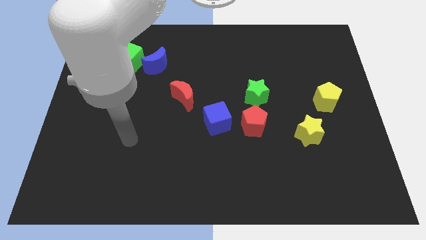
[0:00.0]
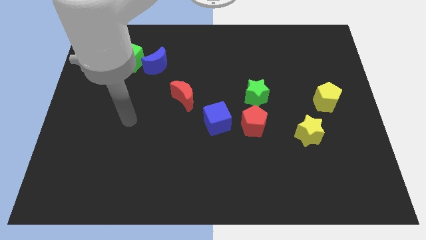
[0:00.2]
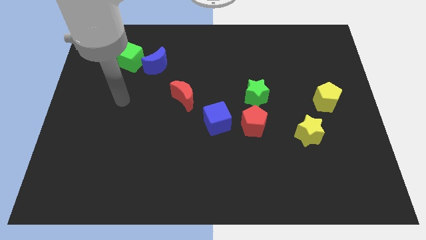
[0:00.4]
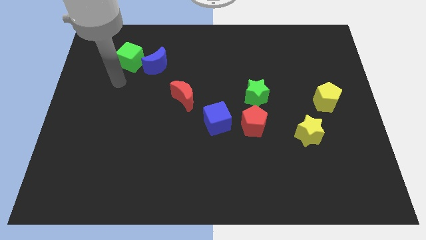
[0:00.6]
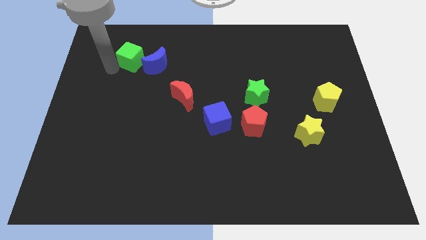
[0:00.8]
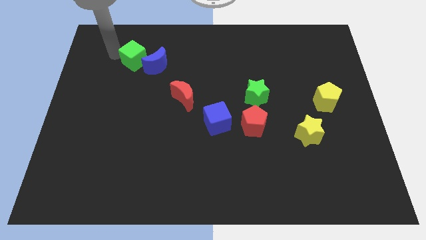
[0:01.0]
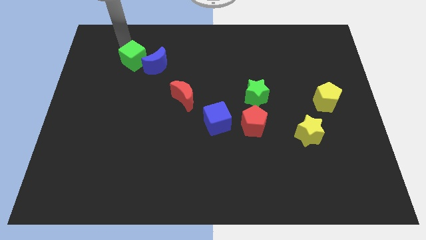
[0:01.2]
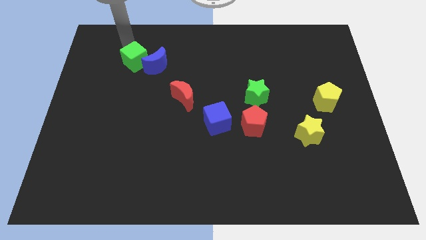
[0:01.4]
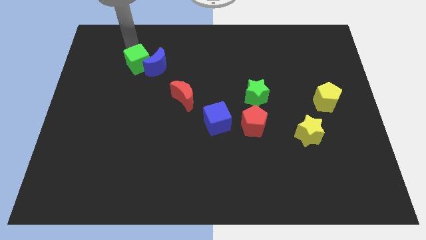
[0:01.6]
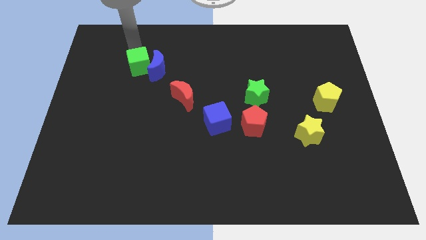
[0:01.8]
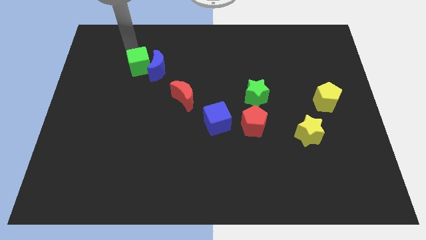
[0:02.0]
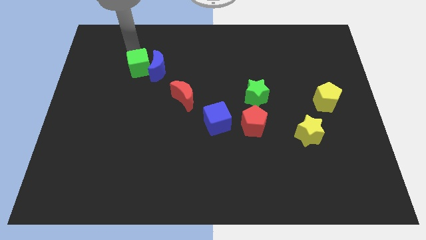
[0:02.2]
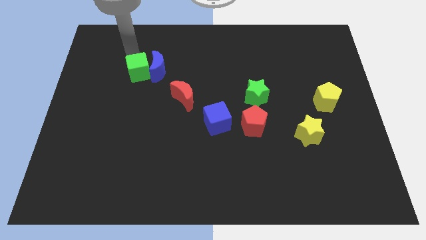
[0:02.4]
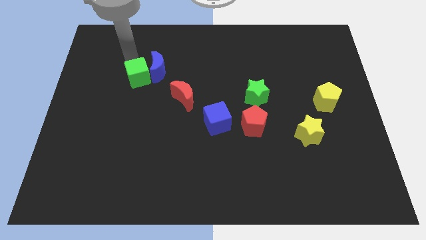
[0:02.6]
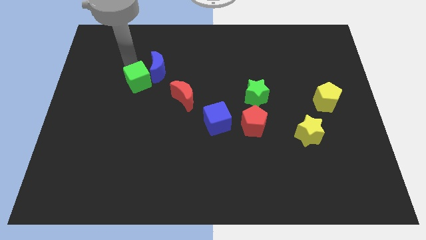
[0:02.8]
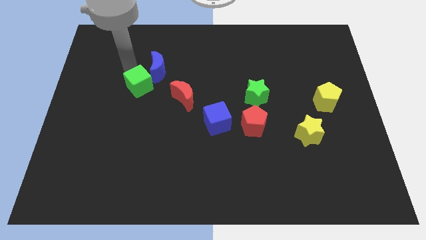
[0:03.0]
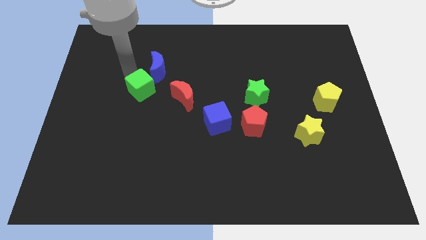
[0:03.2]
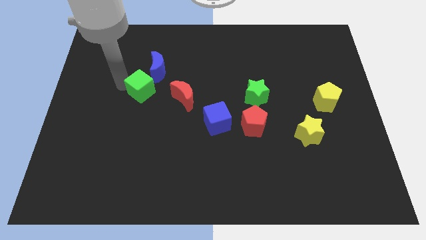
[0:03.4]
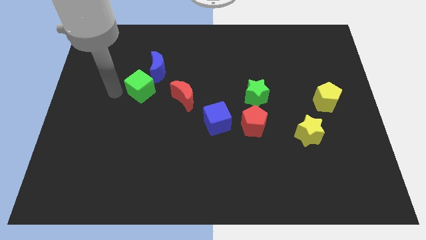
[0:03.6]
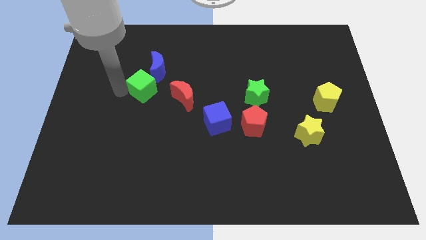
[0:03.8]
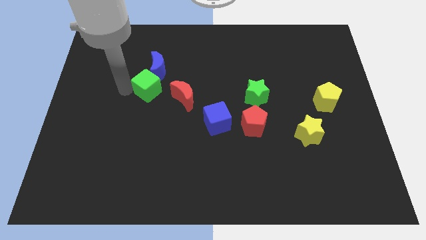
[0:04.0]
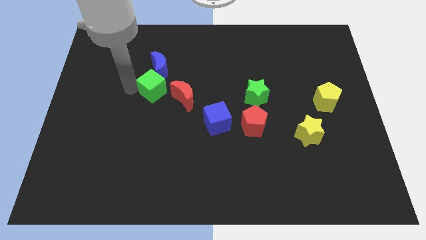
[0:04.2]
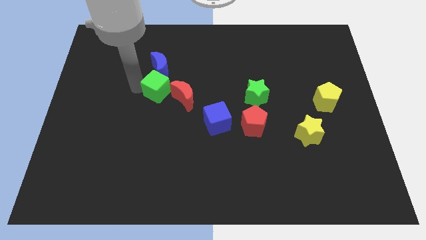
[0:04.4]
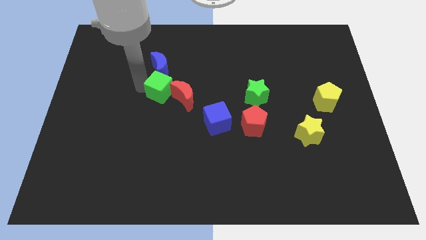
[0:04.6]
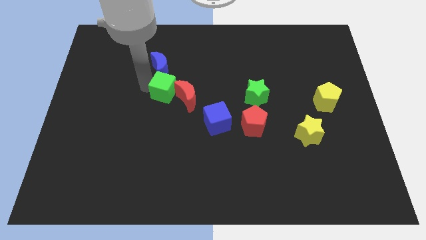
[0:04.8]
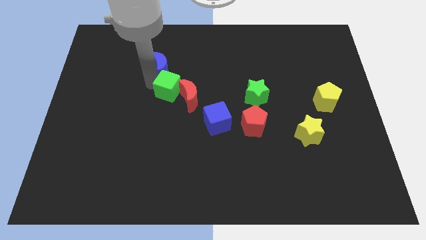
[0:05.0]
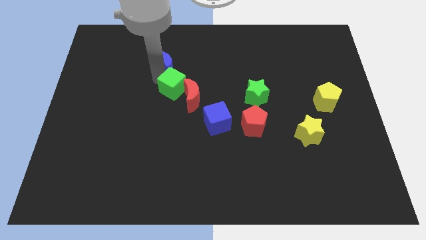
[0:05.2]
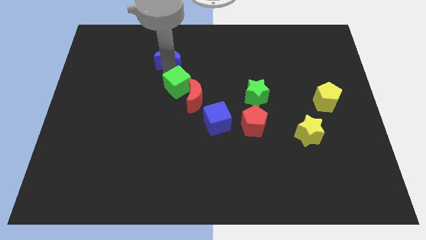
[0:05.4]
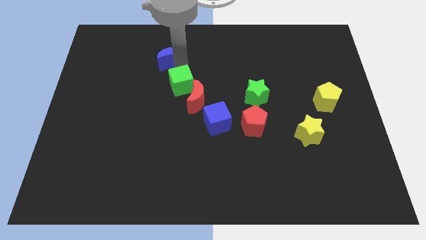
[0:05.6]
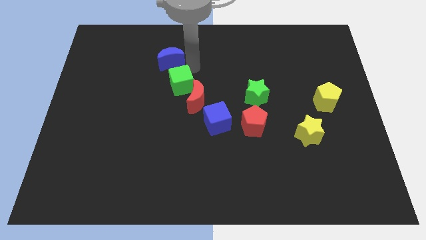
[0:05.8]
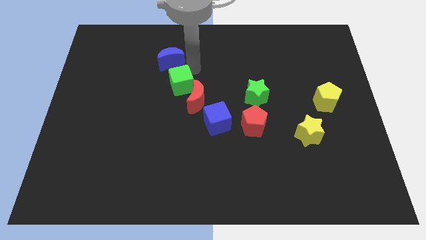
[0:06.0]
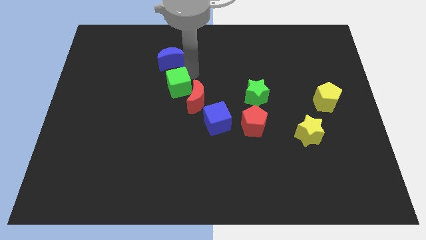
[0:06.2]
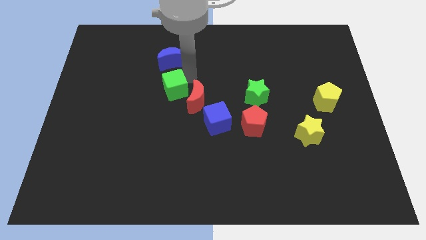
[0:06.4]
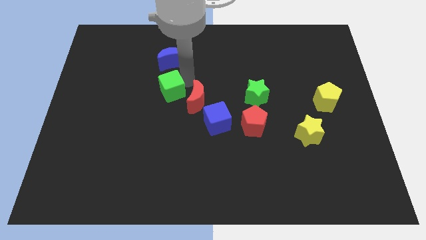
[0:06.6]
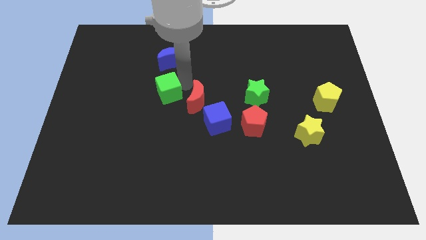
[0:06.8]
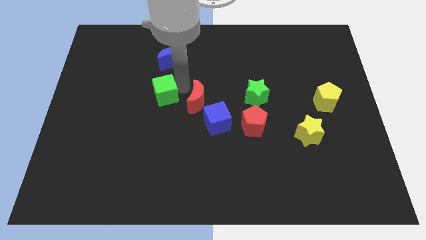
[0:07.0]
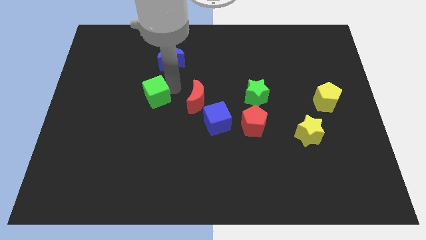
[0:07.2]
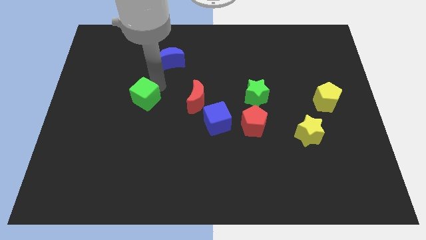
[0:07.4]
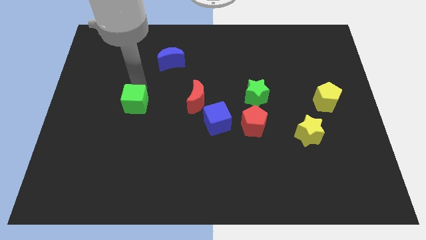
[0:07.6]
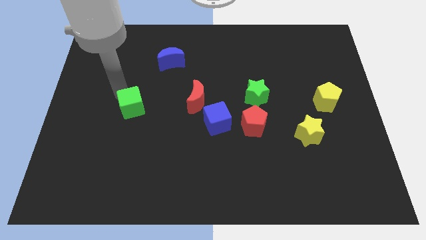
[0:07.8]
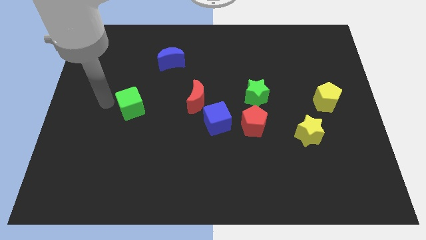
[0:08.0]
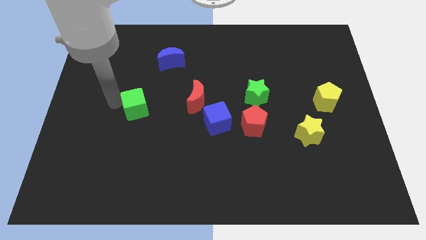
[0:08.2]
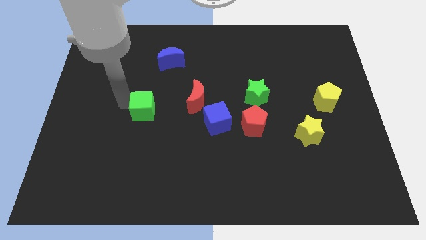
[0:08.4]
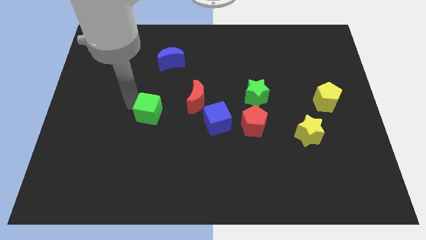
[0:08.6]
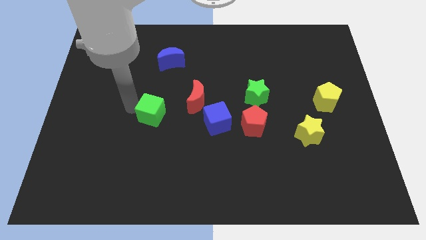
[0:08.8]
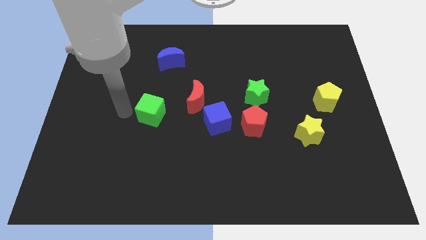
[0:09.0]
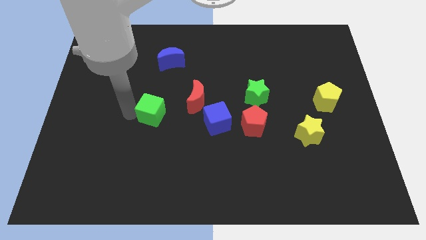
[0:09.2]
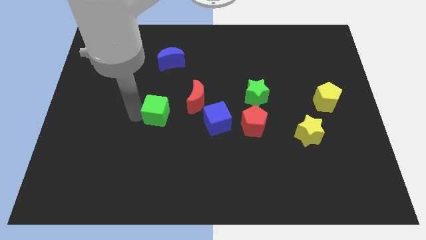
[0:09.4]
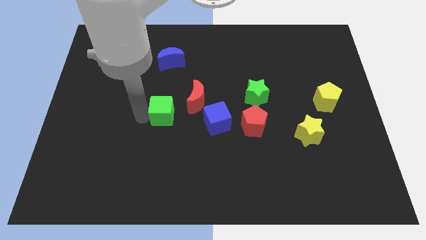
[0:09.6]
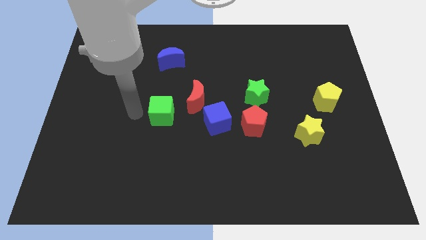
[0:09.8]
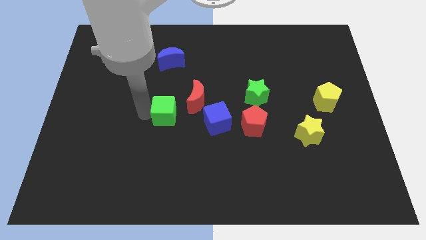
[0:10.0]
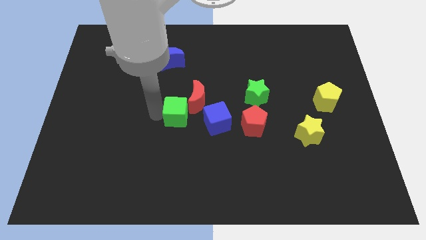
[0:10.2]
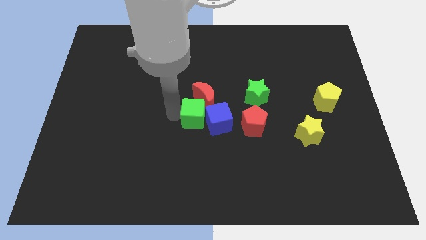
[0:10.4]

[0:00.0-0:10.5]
move the green cube close to the blue cube
